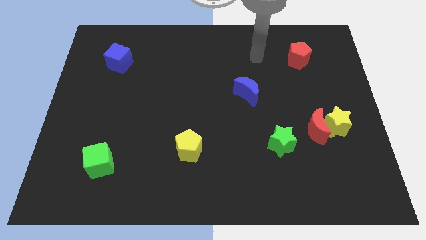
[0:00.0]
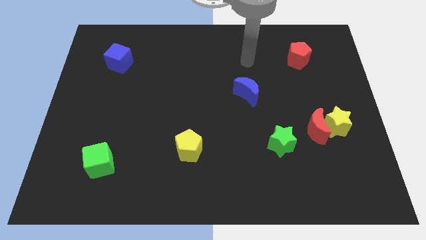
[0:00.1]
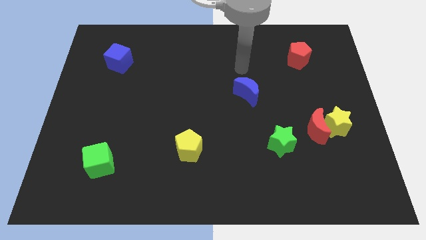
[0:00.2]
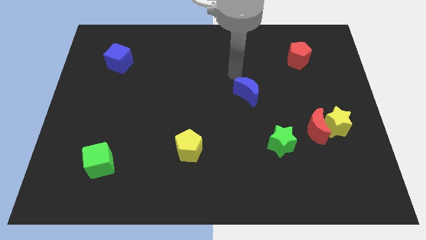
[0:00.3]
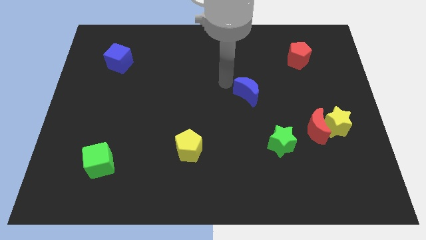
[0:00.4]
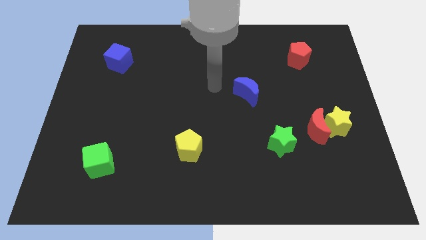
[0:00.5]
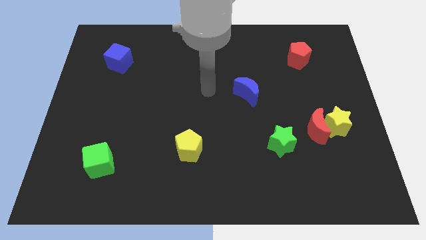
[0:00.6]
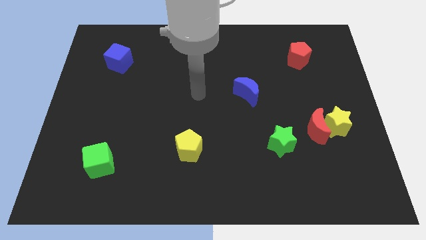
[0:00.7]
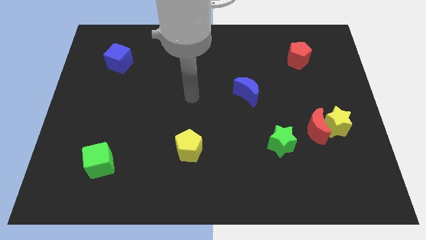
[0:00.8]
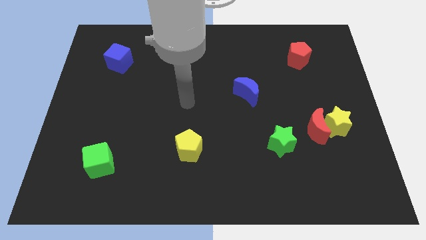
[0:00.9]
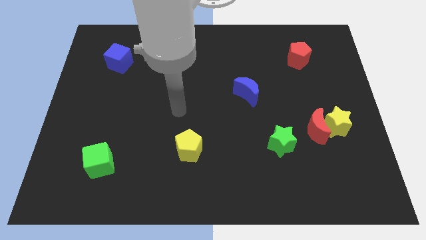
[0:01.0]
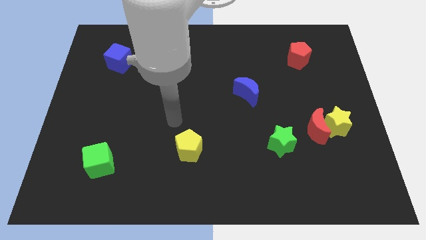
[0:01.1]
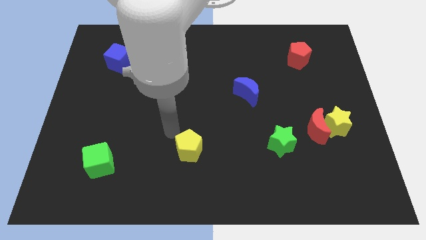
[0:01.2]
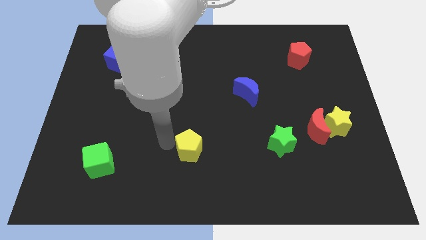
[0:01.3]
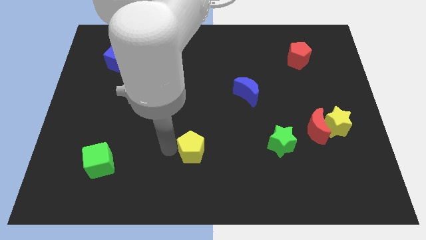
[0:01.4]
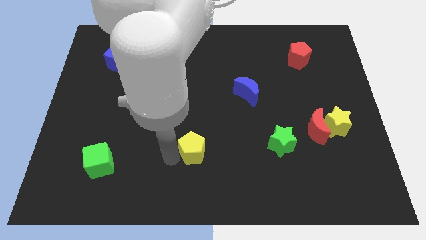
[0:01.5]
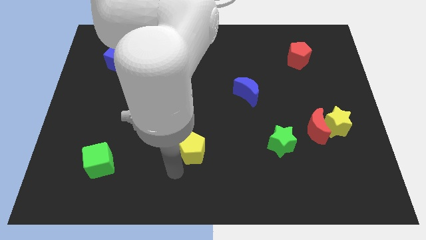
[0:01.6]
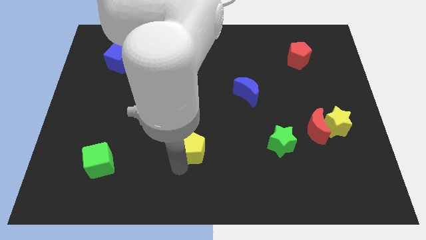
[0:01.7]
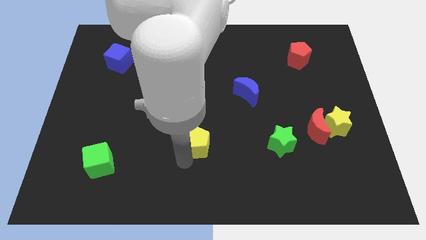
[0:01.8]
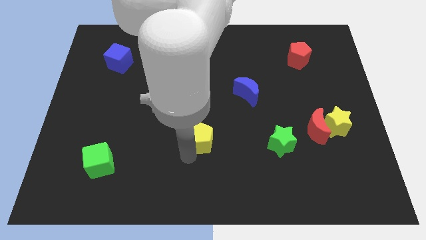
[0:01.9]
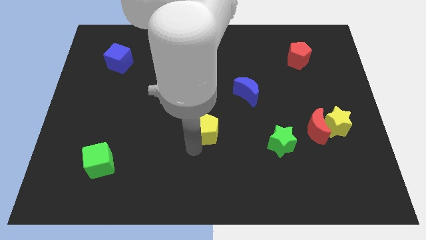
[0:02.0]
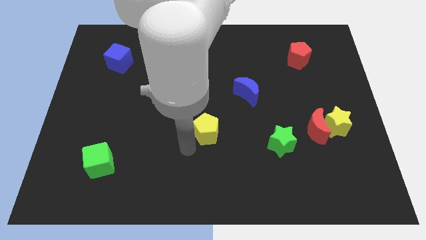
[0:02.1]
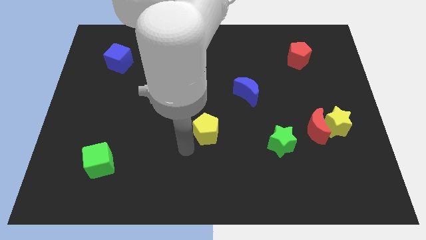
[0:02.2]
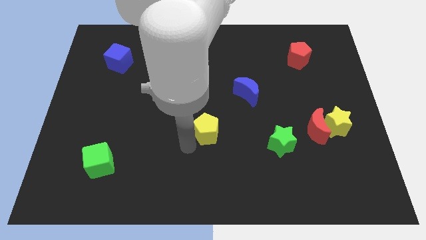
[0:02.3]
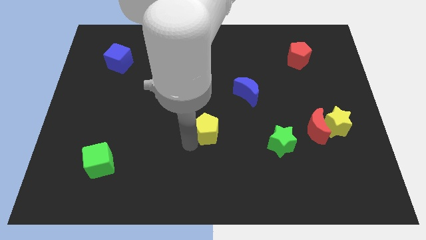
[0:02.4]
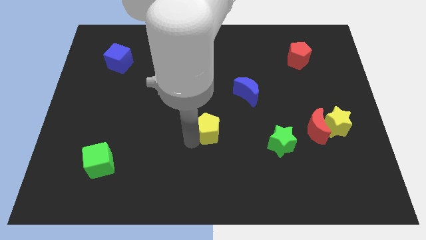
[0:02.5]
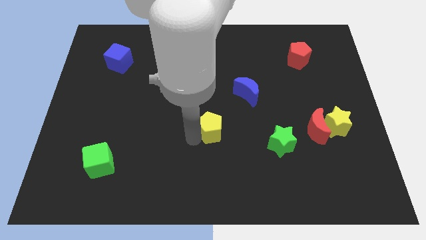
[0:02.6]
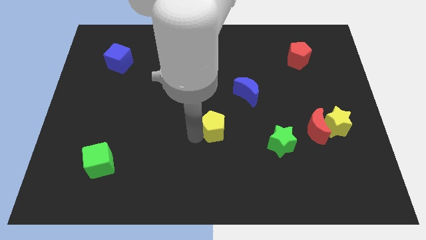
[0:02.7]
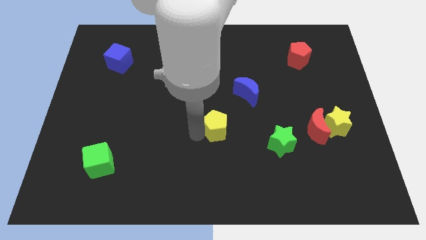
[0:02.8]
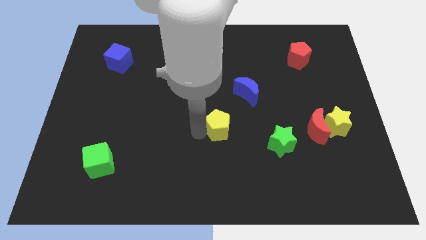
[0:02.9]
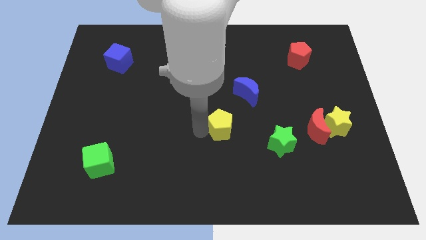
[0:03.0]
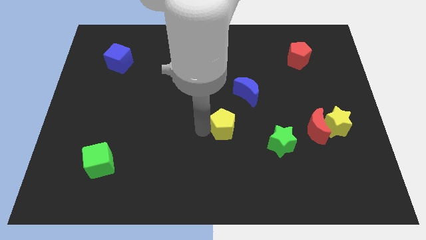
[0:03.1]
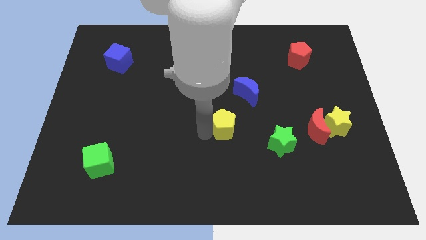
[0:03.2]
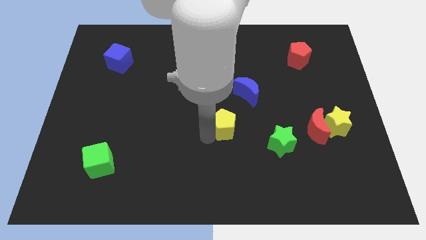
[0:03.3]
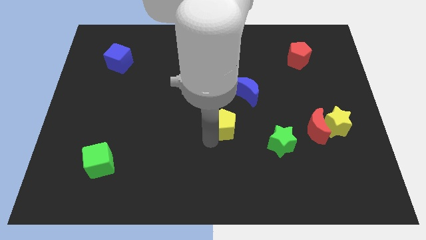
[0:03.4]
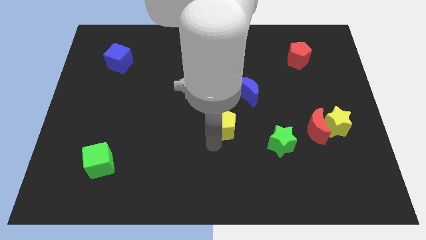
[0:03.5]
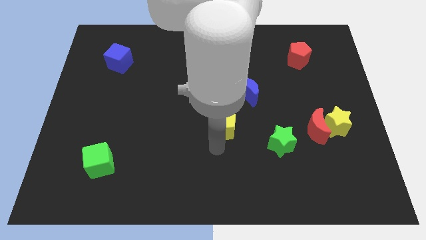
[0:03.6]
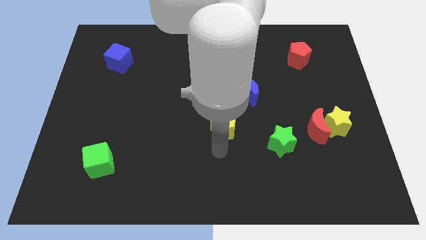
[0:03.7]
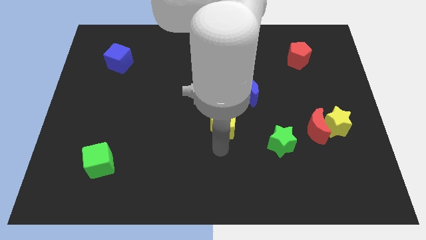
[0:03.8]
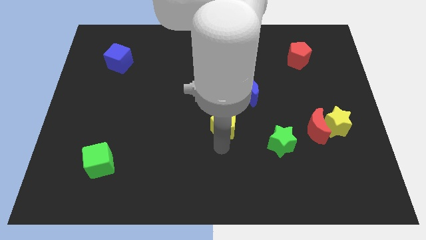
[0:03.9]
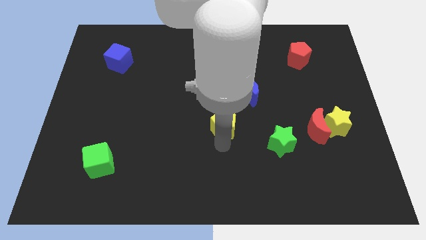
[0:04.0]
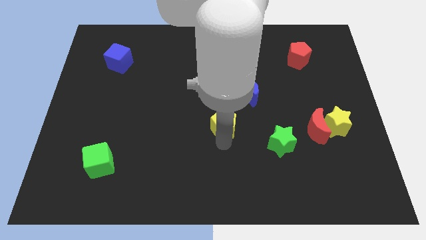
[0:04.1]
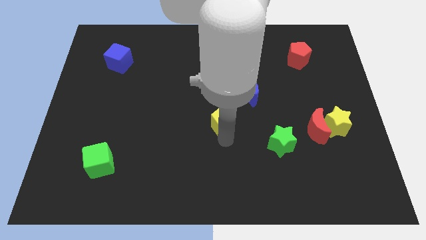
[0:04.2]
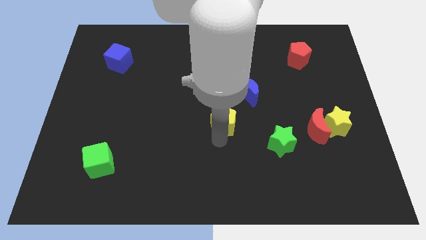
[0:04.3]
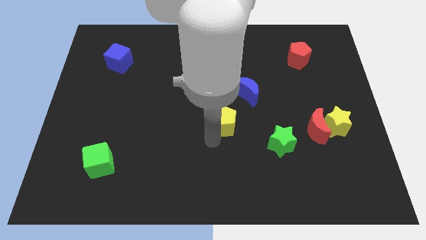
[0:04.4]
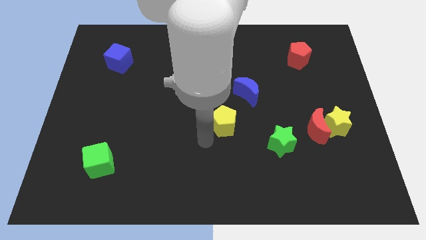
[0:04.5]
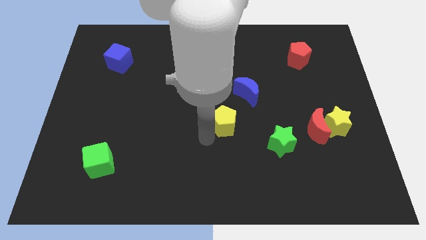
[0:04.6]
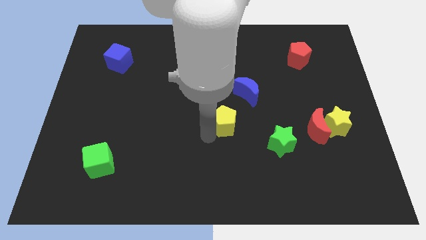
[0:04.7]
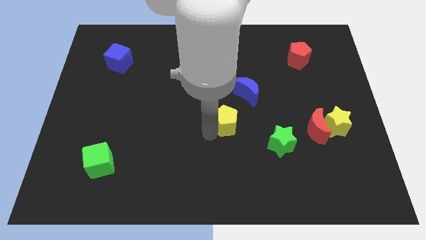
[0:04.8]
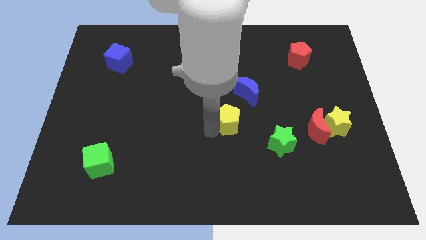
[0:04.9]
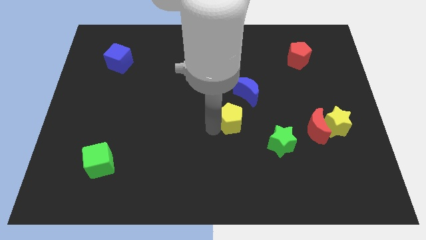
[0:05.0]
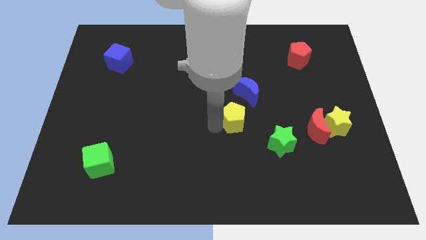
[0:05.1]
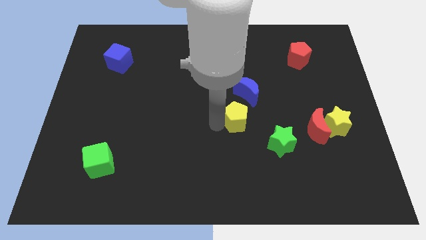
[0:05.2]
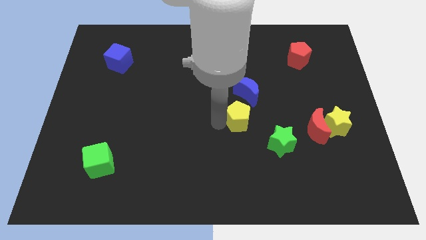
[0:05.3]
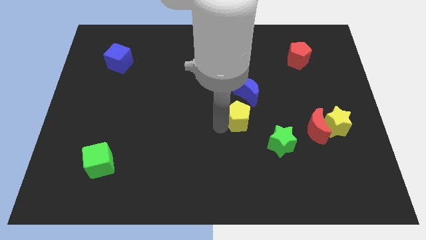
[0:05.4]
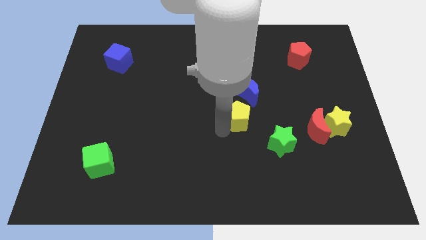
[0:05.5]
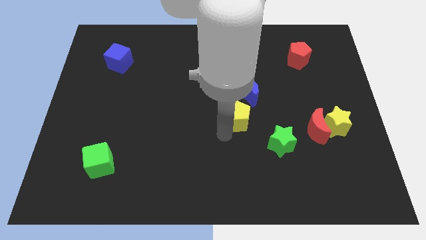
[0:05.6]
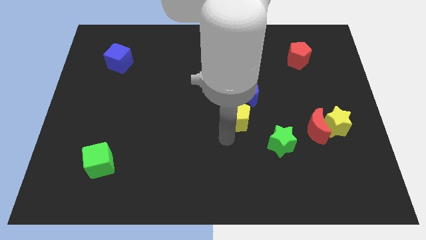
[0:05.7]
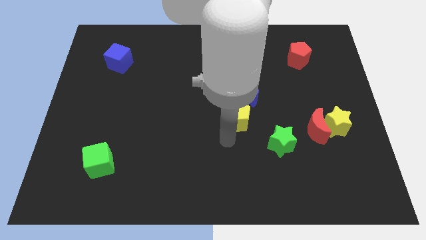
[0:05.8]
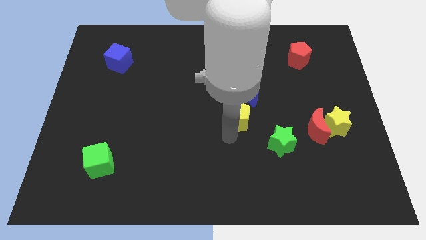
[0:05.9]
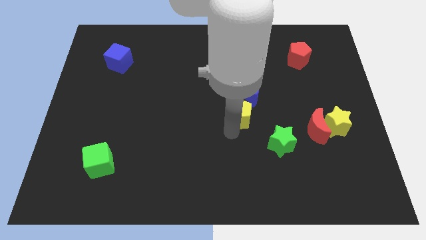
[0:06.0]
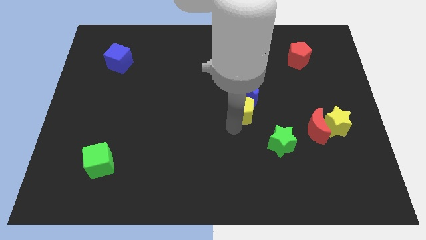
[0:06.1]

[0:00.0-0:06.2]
move the yellow pentagon to the blue moon

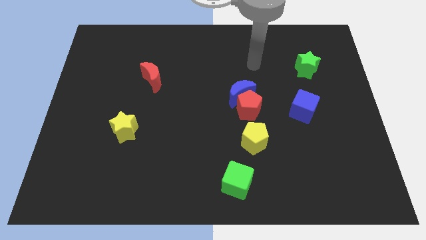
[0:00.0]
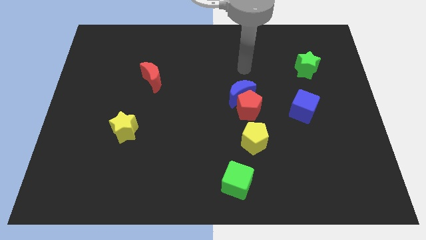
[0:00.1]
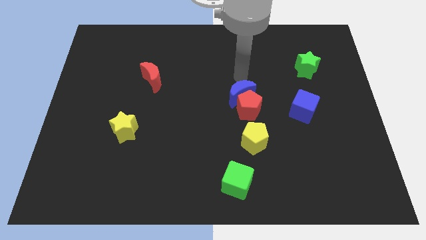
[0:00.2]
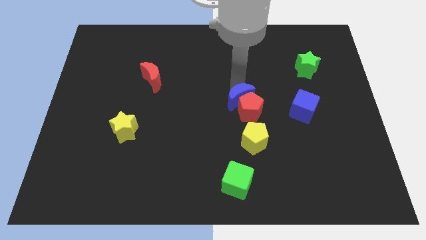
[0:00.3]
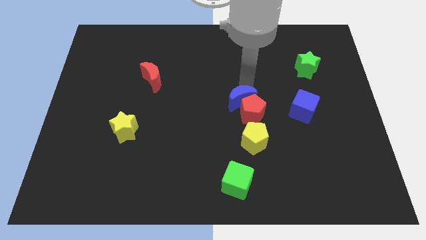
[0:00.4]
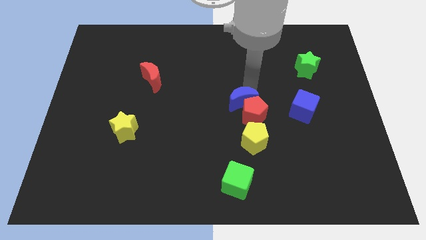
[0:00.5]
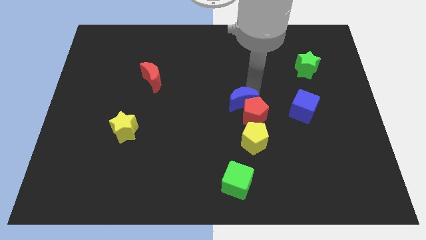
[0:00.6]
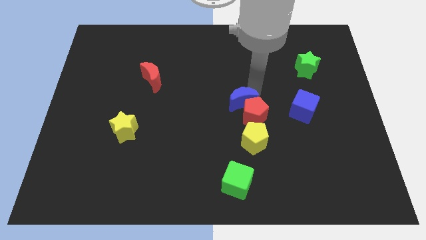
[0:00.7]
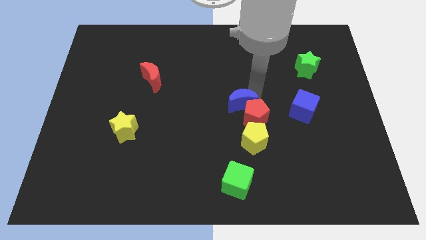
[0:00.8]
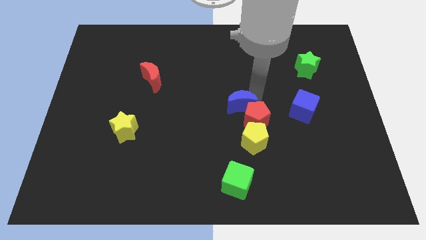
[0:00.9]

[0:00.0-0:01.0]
push the red pentagon to the yellow pentagon
